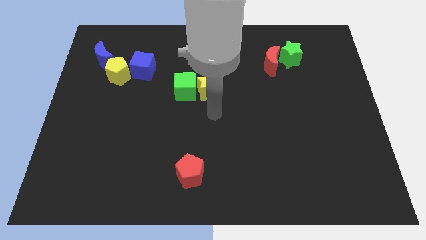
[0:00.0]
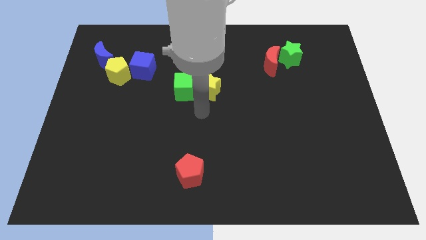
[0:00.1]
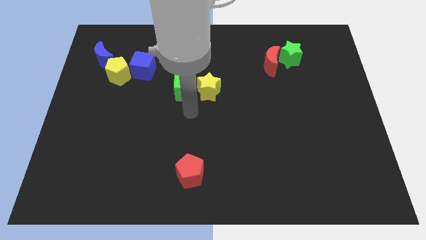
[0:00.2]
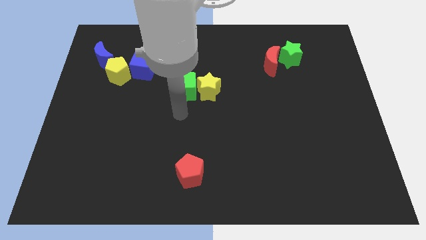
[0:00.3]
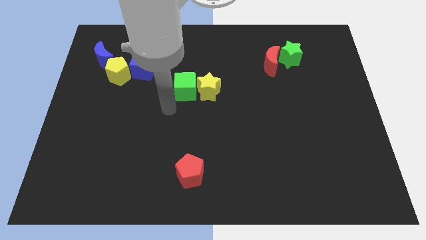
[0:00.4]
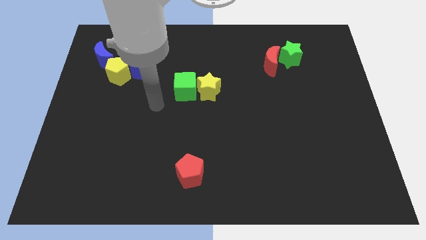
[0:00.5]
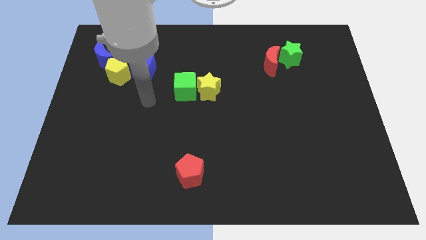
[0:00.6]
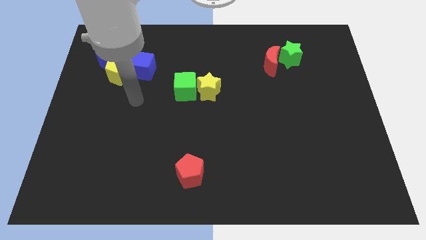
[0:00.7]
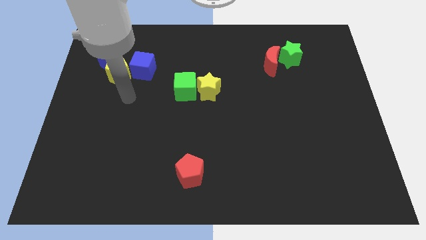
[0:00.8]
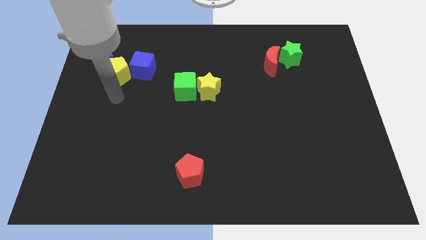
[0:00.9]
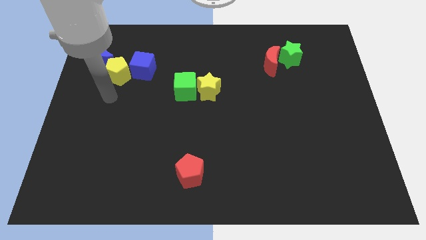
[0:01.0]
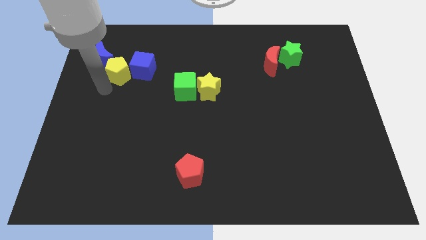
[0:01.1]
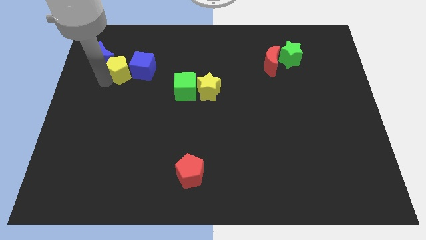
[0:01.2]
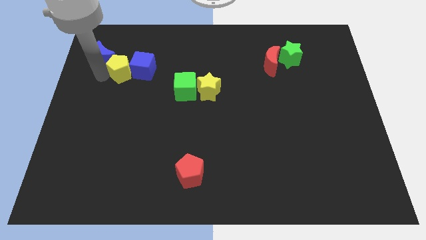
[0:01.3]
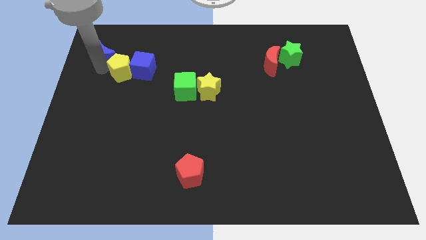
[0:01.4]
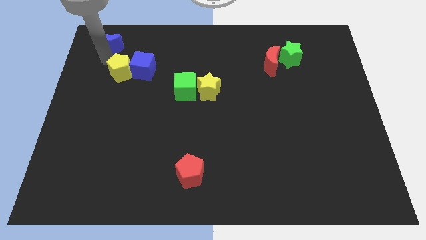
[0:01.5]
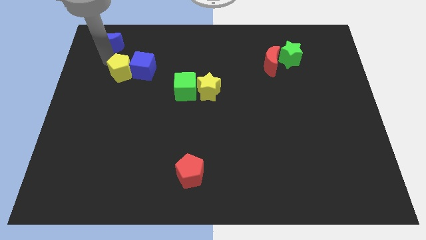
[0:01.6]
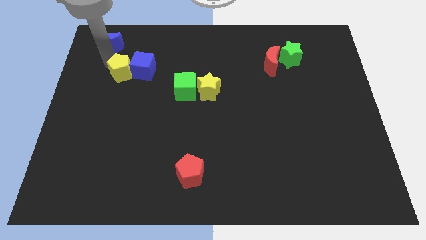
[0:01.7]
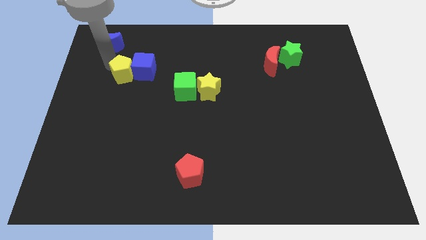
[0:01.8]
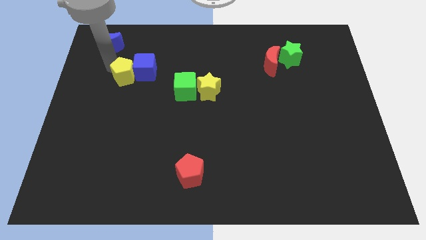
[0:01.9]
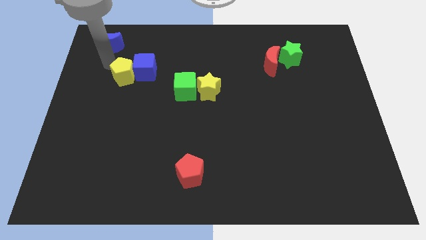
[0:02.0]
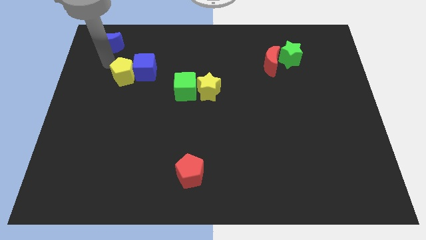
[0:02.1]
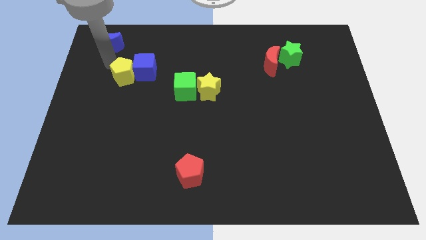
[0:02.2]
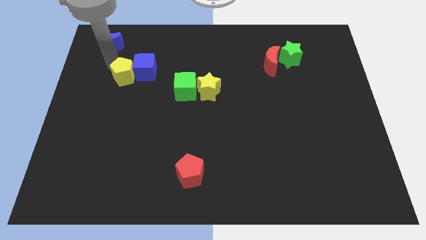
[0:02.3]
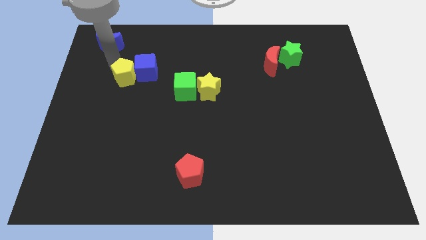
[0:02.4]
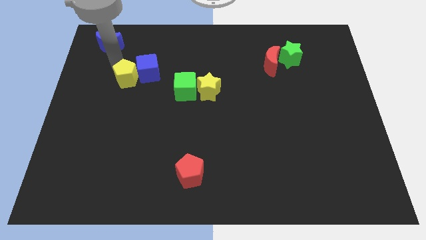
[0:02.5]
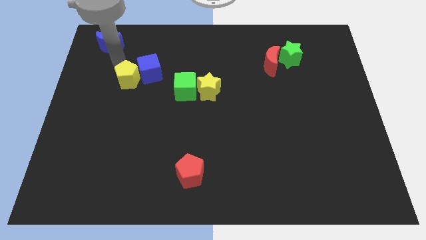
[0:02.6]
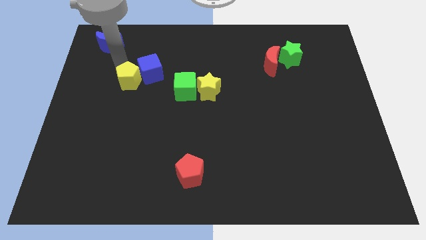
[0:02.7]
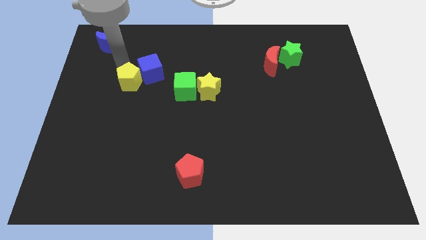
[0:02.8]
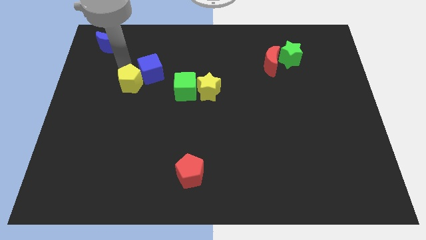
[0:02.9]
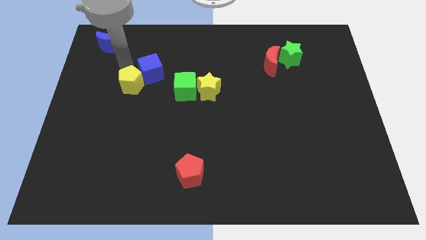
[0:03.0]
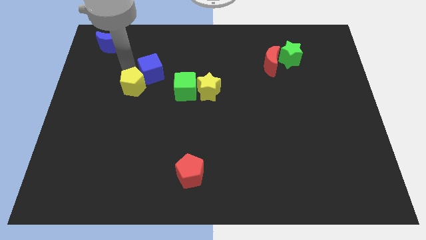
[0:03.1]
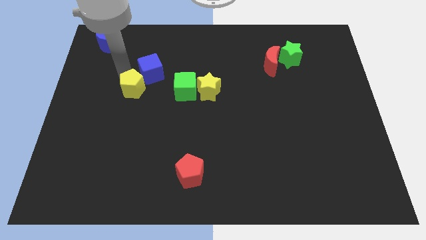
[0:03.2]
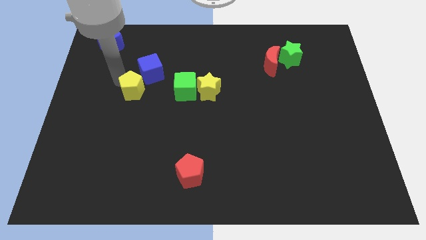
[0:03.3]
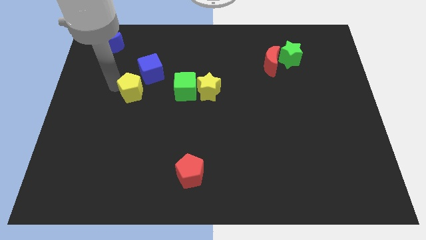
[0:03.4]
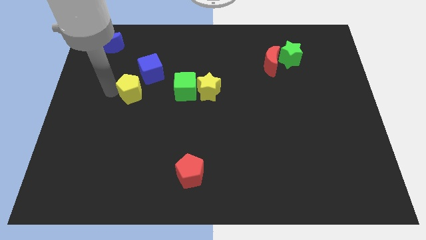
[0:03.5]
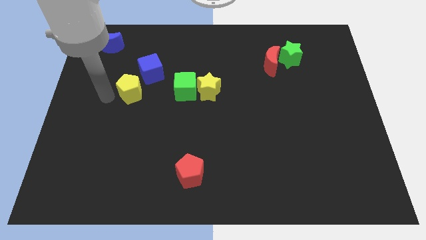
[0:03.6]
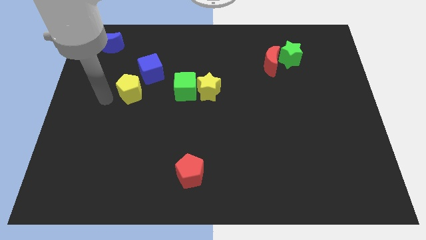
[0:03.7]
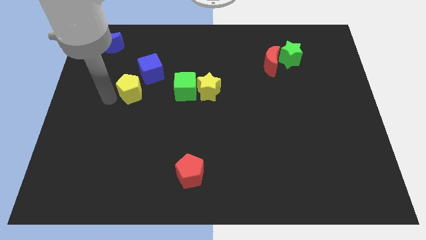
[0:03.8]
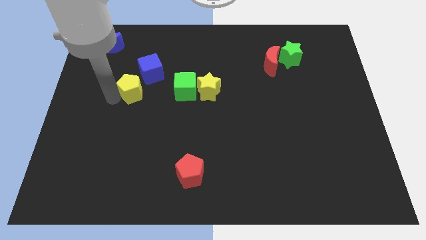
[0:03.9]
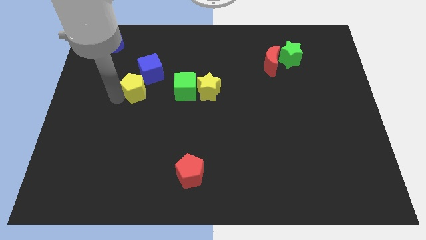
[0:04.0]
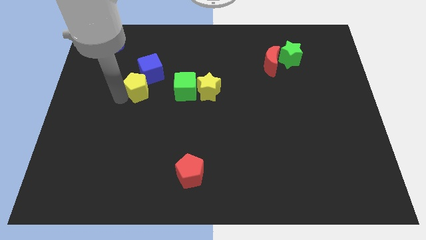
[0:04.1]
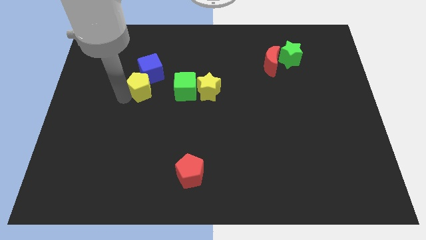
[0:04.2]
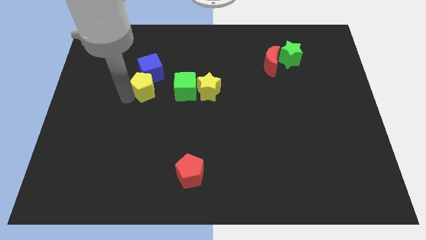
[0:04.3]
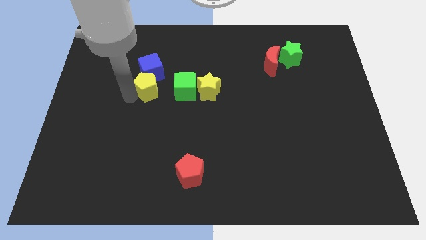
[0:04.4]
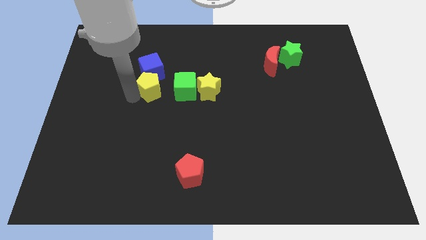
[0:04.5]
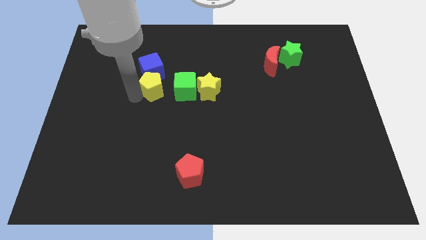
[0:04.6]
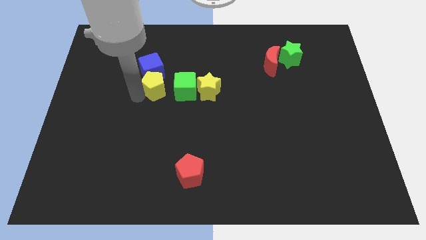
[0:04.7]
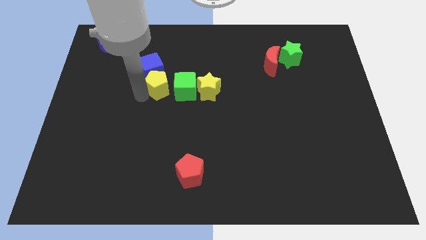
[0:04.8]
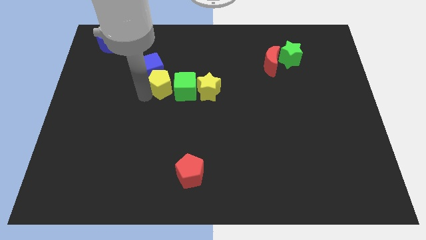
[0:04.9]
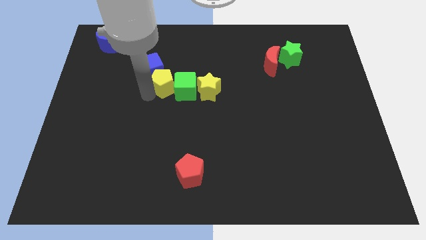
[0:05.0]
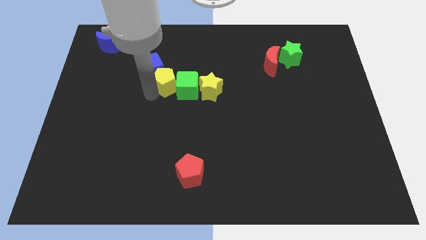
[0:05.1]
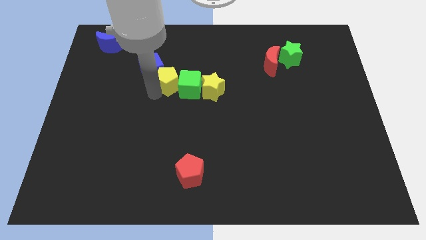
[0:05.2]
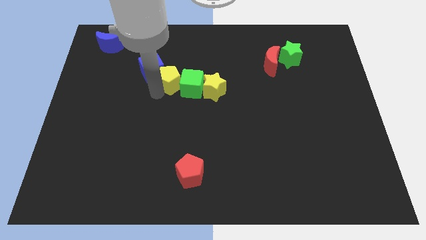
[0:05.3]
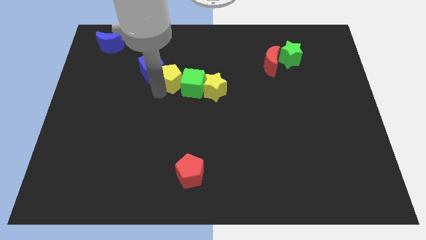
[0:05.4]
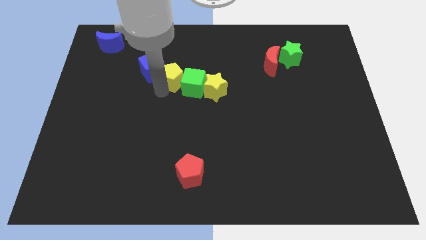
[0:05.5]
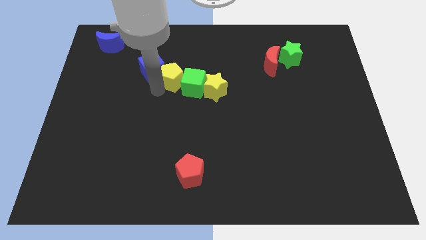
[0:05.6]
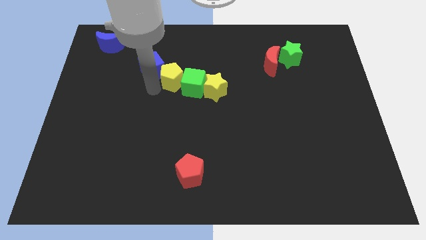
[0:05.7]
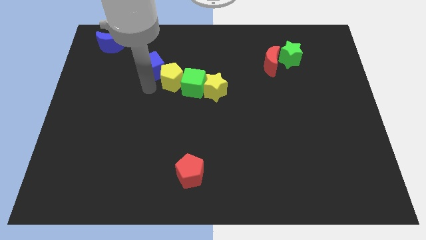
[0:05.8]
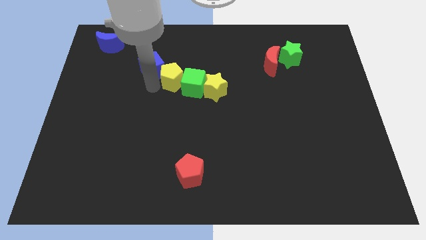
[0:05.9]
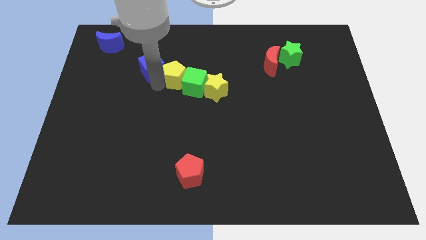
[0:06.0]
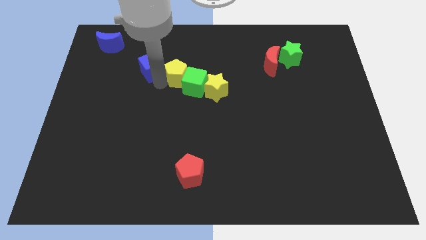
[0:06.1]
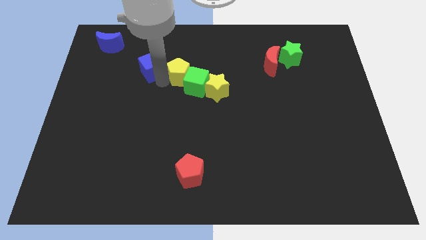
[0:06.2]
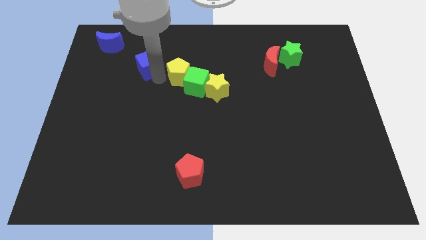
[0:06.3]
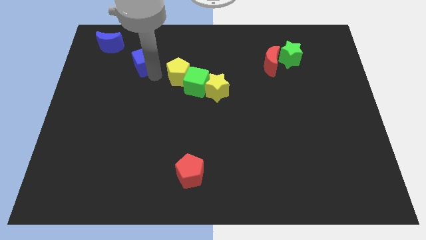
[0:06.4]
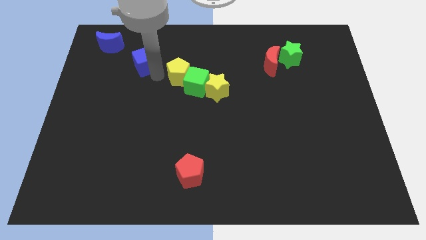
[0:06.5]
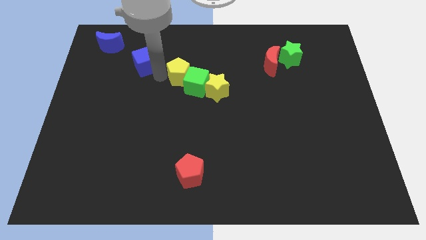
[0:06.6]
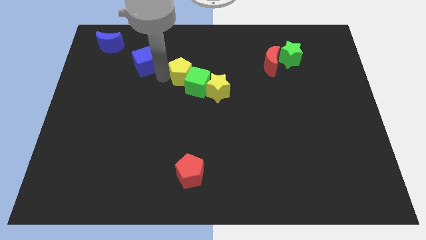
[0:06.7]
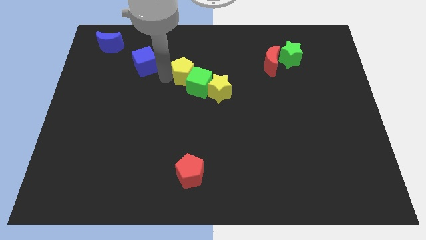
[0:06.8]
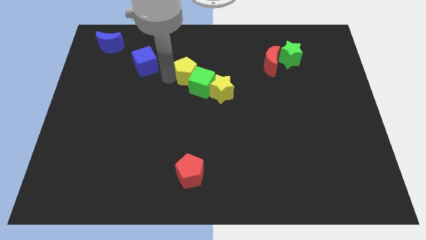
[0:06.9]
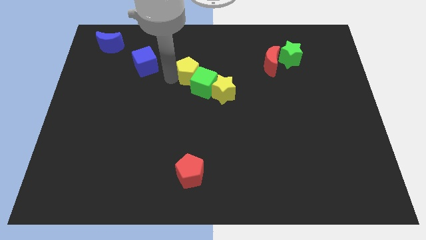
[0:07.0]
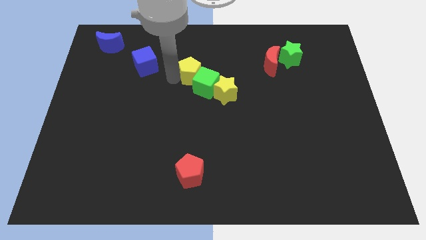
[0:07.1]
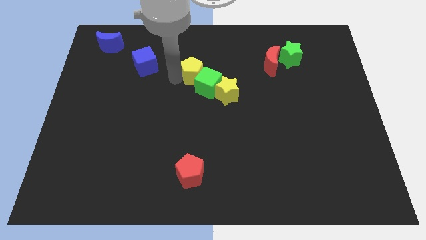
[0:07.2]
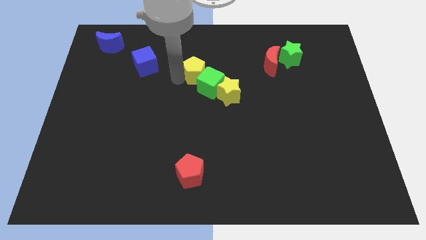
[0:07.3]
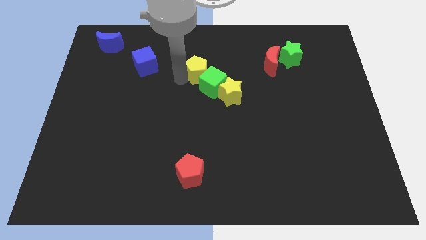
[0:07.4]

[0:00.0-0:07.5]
slide the yellow pentagon right

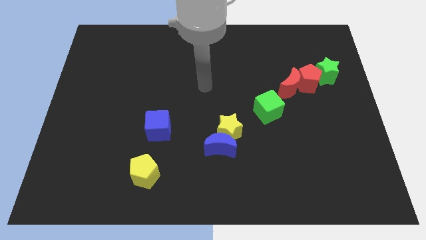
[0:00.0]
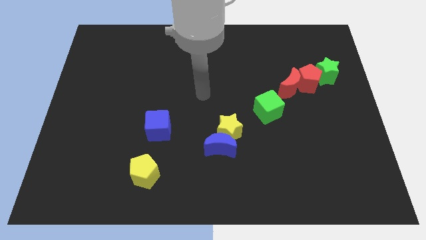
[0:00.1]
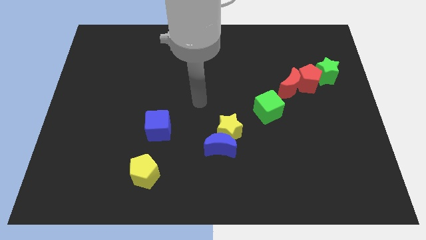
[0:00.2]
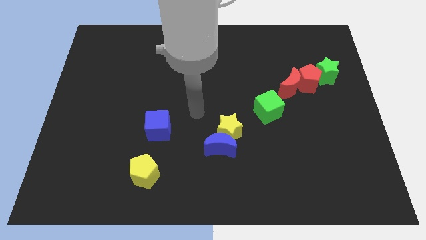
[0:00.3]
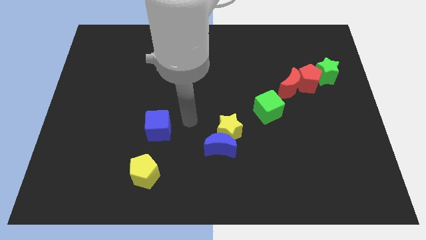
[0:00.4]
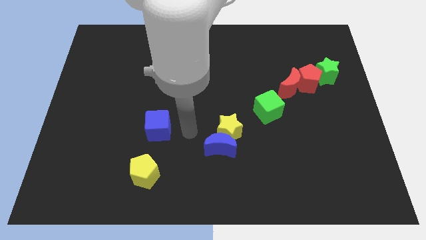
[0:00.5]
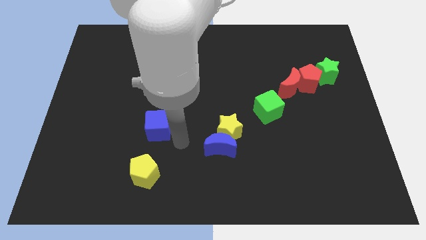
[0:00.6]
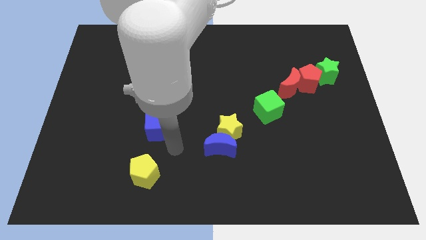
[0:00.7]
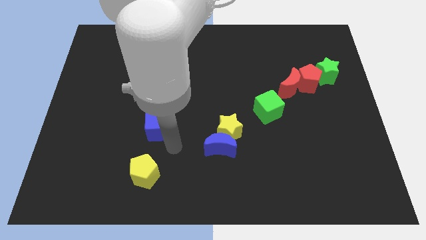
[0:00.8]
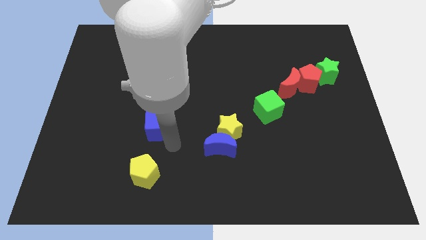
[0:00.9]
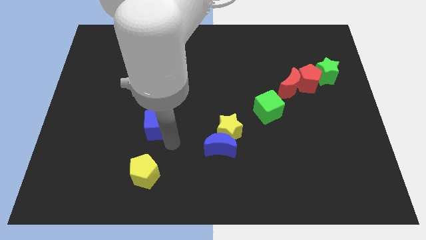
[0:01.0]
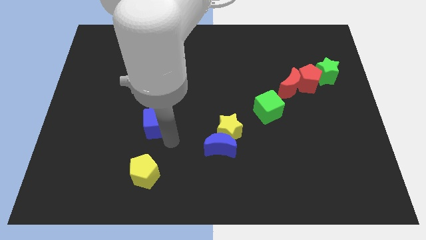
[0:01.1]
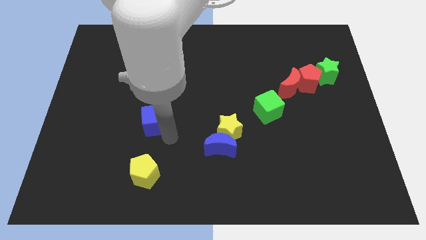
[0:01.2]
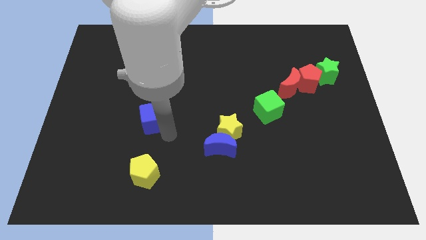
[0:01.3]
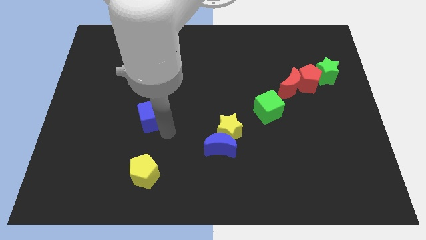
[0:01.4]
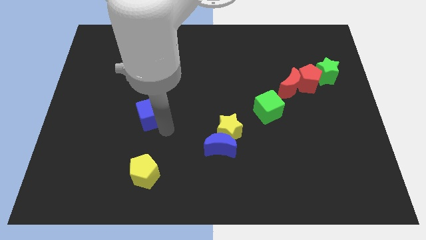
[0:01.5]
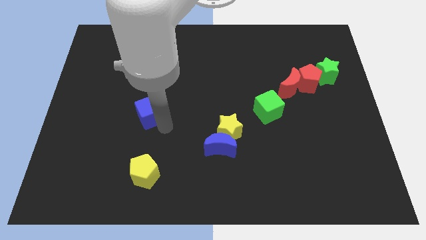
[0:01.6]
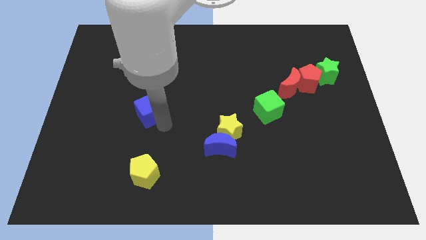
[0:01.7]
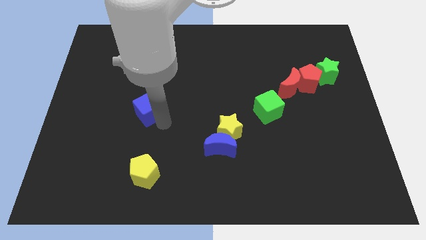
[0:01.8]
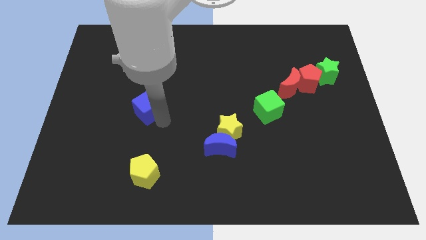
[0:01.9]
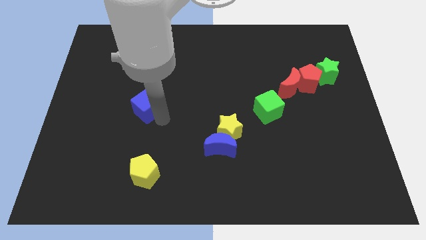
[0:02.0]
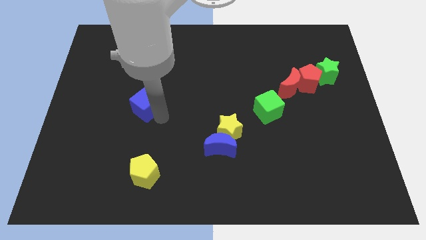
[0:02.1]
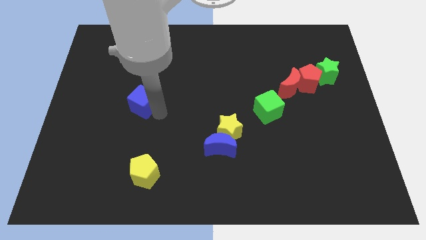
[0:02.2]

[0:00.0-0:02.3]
slide the blue cube slightly upwards and left
